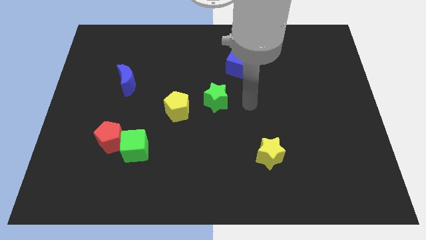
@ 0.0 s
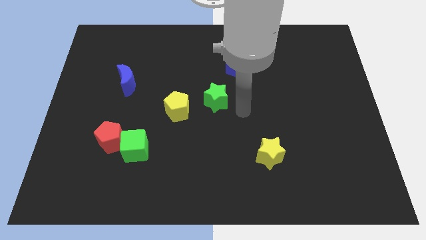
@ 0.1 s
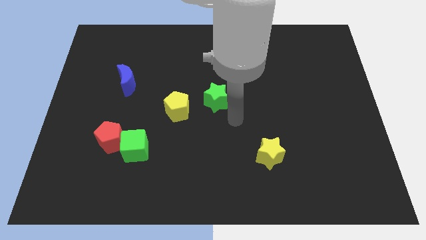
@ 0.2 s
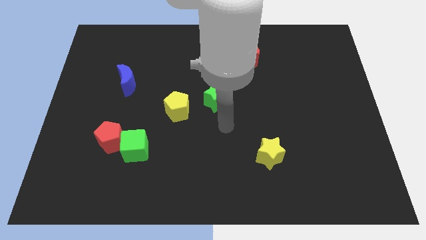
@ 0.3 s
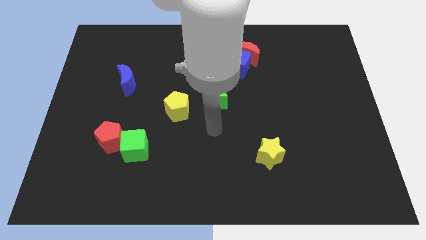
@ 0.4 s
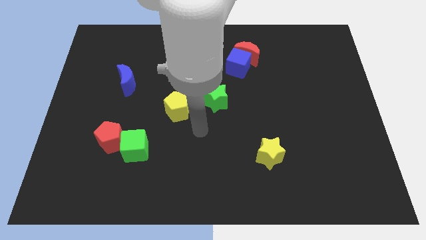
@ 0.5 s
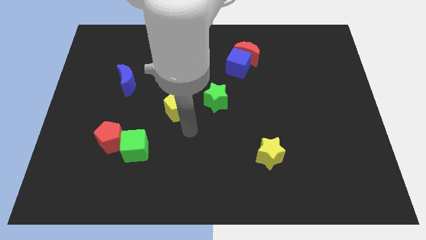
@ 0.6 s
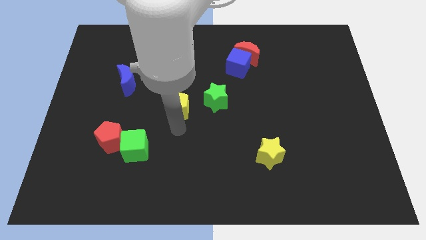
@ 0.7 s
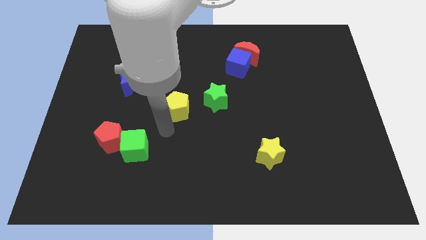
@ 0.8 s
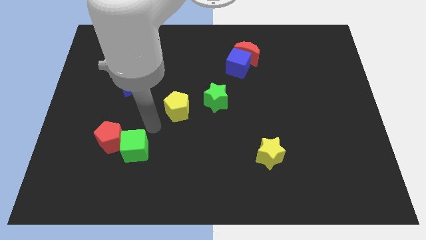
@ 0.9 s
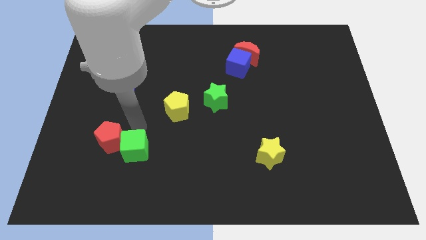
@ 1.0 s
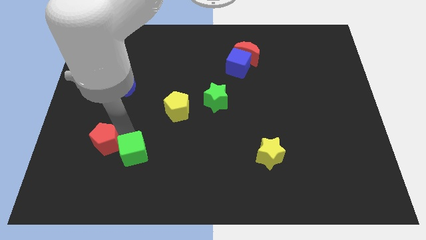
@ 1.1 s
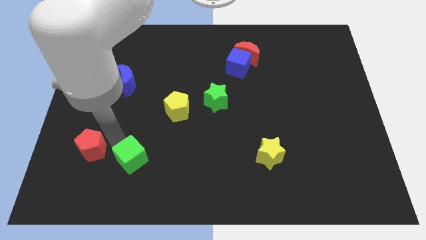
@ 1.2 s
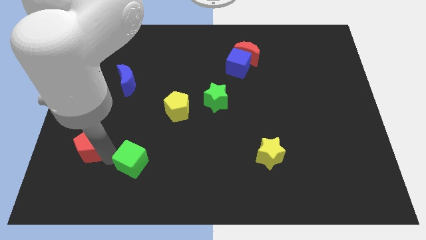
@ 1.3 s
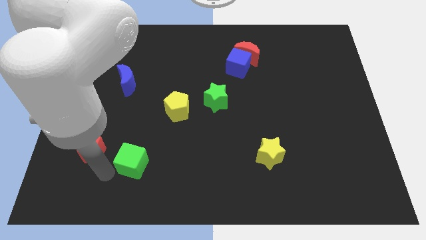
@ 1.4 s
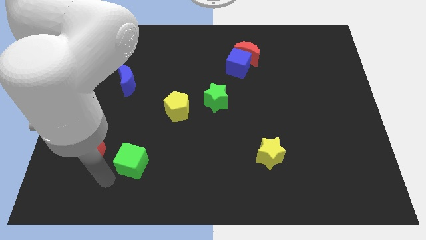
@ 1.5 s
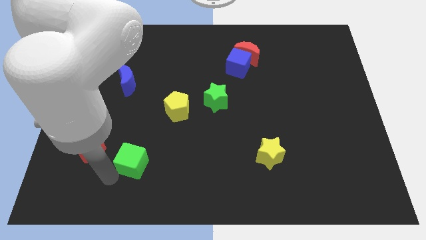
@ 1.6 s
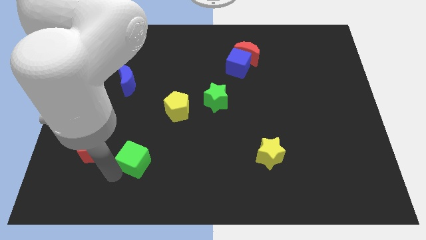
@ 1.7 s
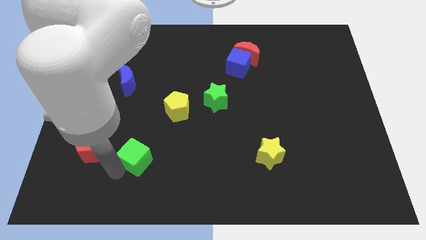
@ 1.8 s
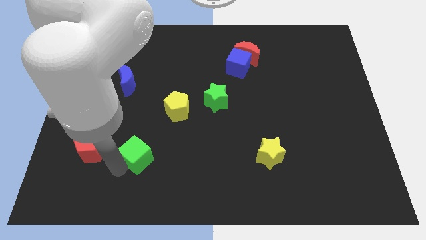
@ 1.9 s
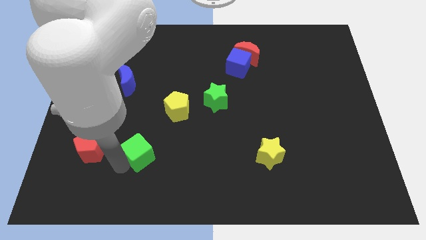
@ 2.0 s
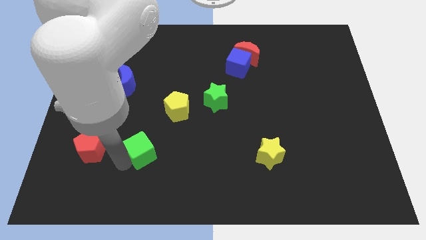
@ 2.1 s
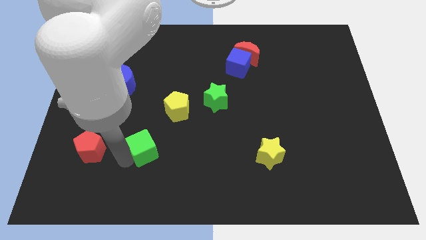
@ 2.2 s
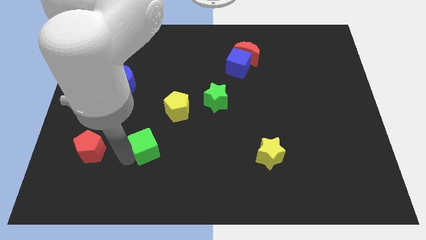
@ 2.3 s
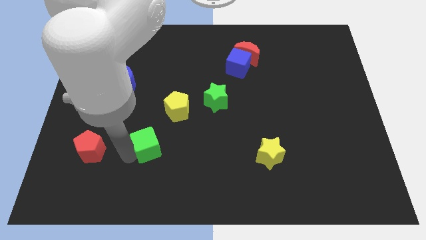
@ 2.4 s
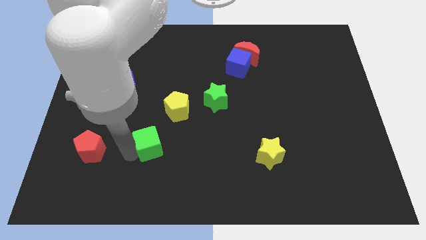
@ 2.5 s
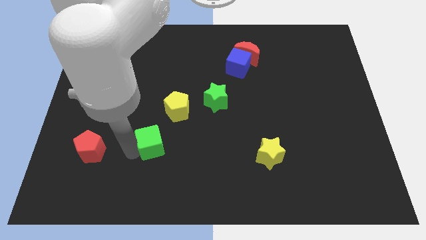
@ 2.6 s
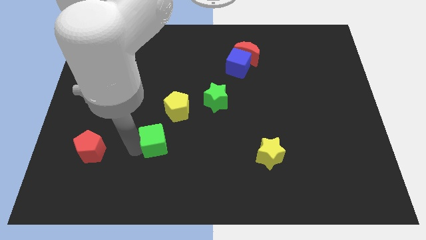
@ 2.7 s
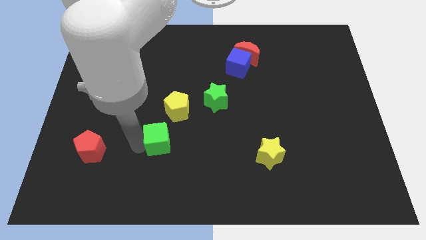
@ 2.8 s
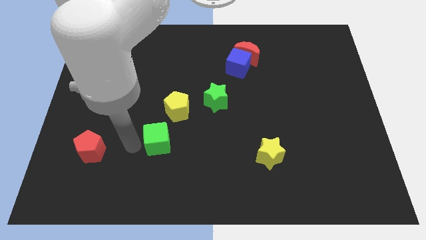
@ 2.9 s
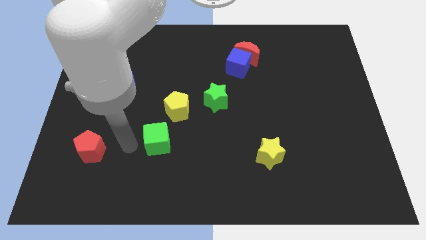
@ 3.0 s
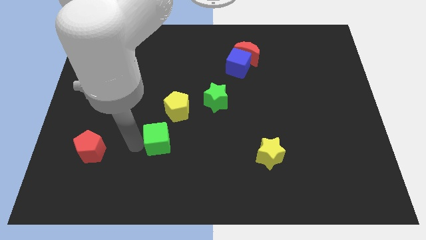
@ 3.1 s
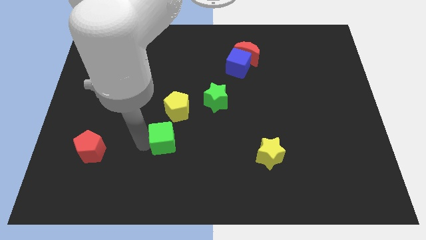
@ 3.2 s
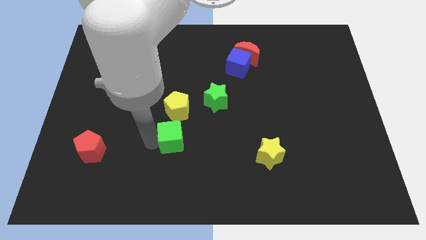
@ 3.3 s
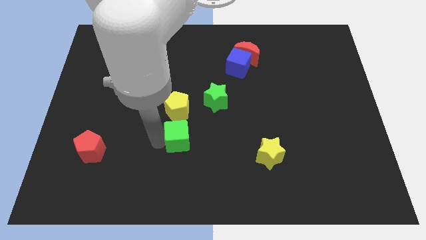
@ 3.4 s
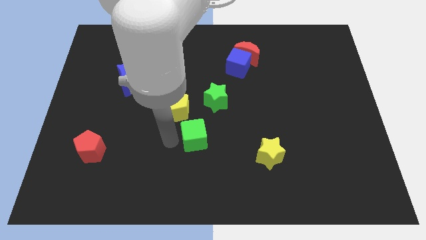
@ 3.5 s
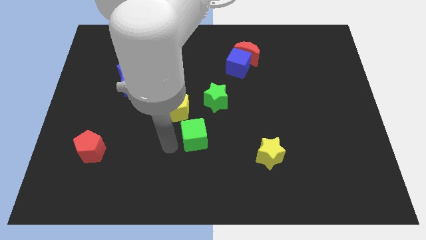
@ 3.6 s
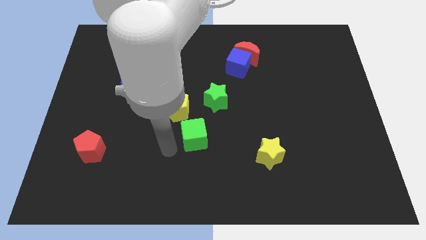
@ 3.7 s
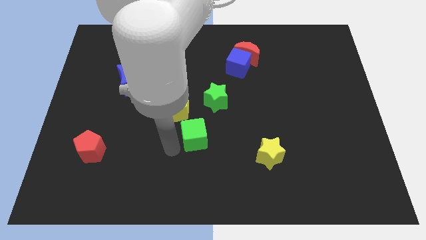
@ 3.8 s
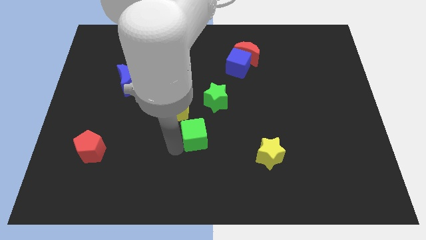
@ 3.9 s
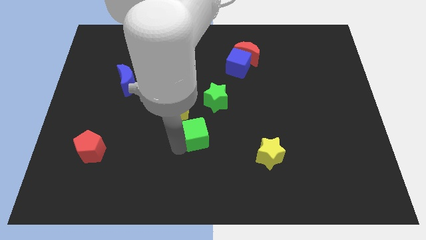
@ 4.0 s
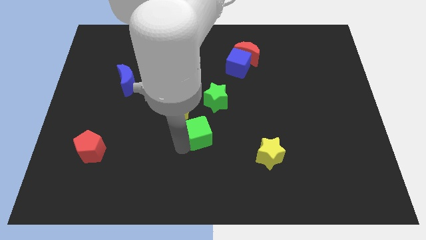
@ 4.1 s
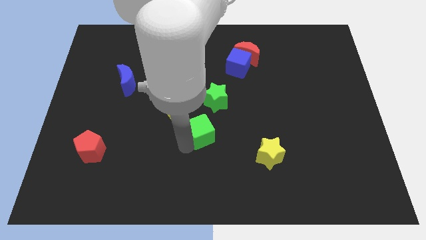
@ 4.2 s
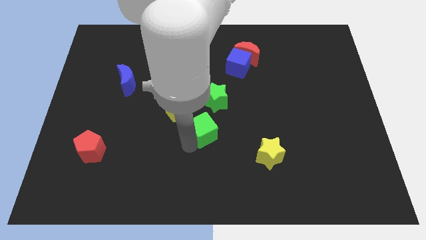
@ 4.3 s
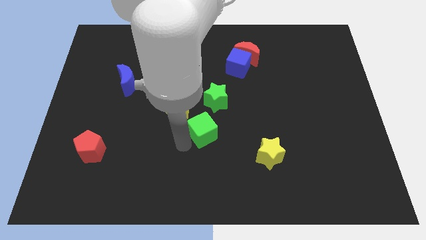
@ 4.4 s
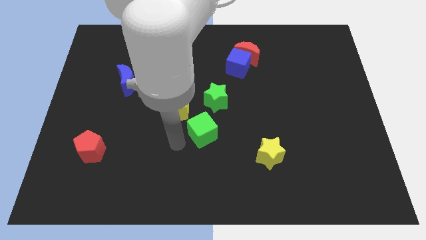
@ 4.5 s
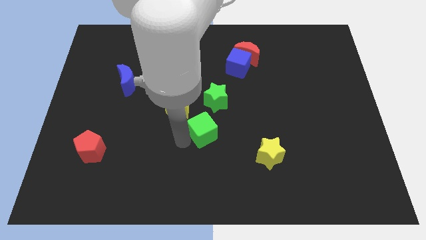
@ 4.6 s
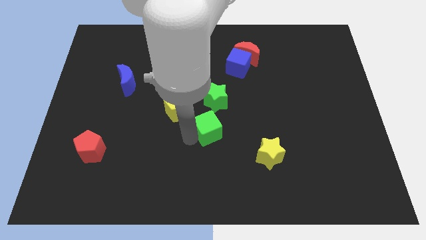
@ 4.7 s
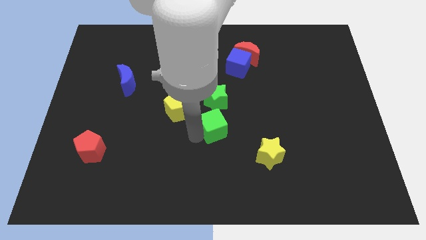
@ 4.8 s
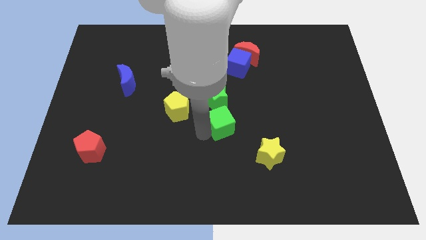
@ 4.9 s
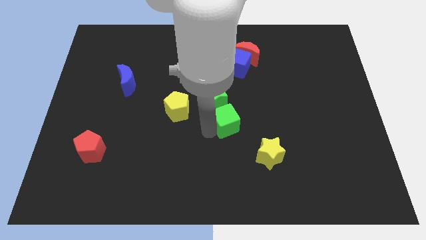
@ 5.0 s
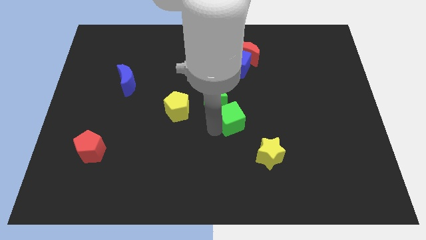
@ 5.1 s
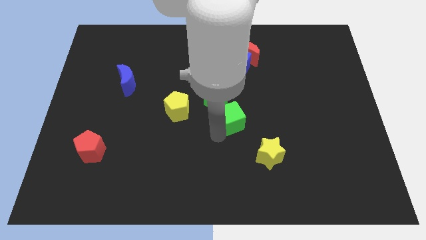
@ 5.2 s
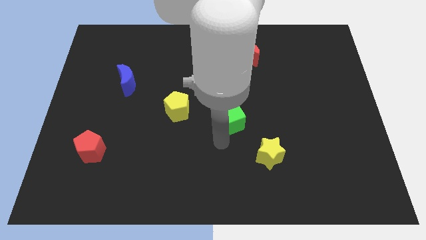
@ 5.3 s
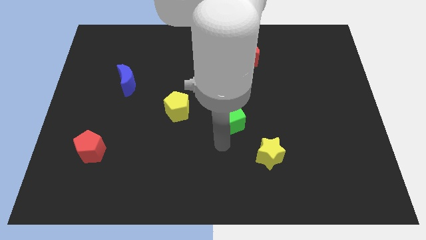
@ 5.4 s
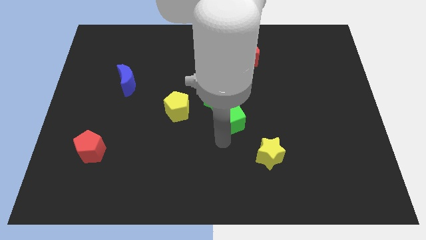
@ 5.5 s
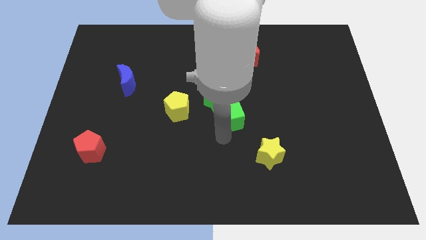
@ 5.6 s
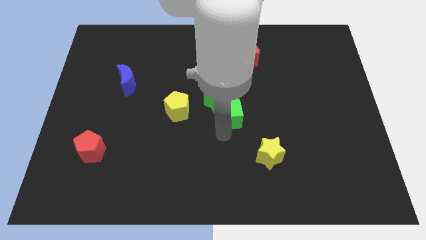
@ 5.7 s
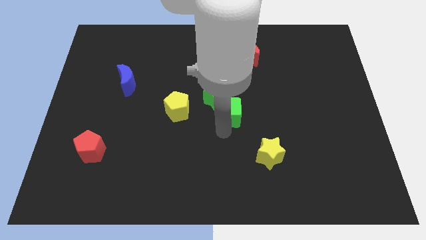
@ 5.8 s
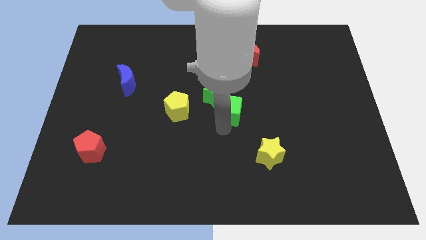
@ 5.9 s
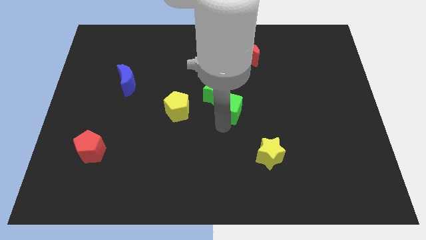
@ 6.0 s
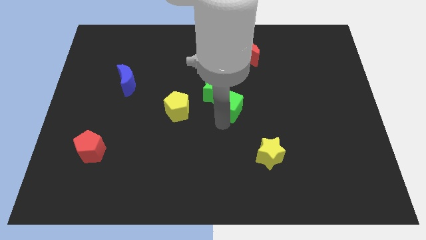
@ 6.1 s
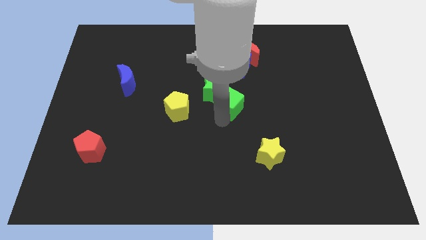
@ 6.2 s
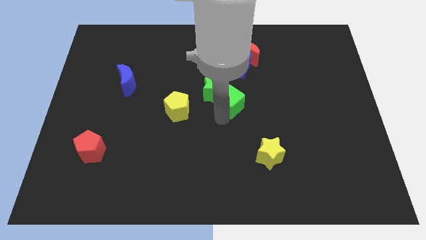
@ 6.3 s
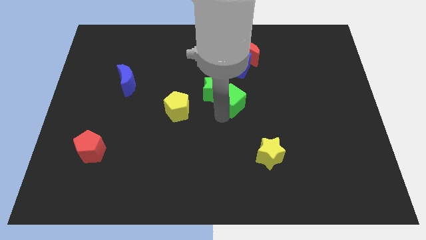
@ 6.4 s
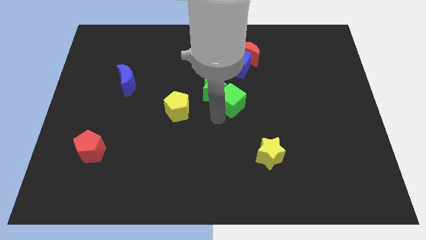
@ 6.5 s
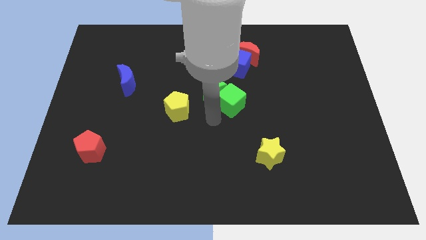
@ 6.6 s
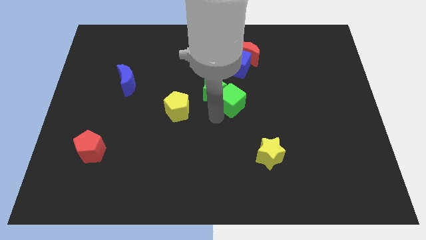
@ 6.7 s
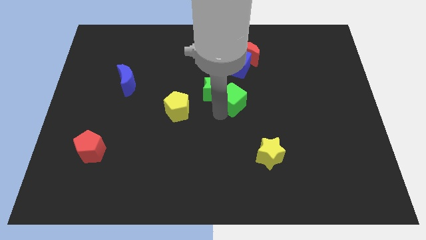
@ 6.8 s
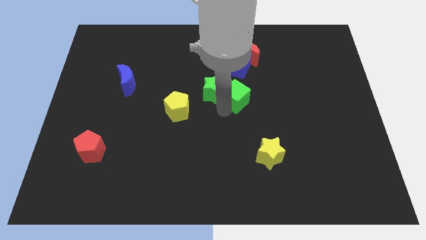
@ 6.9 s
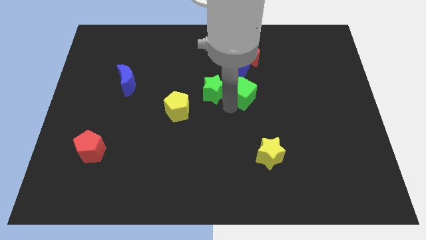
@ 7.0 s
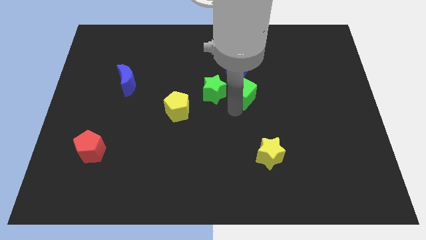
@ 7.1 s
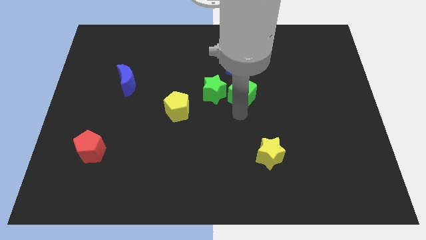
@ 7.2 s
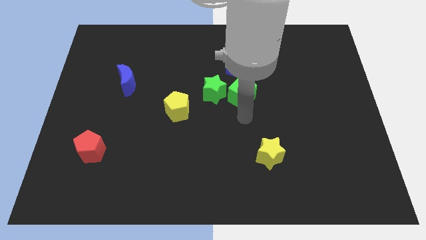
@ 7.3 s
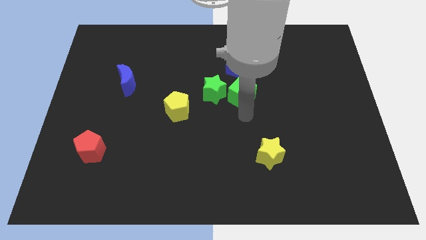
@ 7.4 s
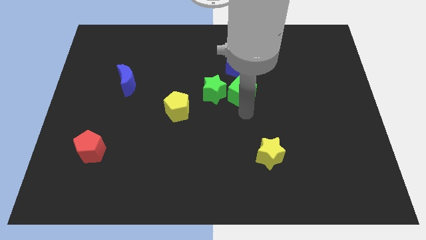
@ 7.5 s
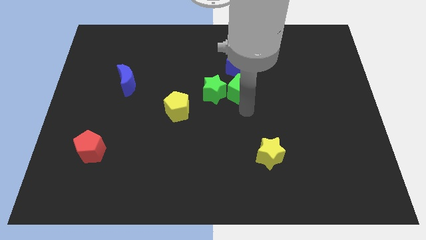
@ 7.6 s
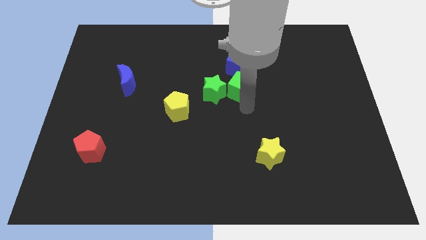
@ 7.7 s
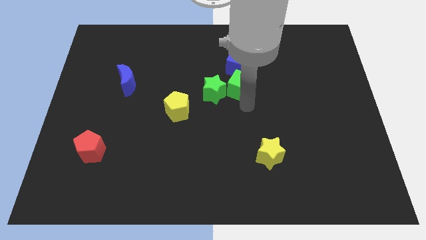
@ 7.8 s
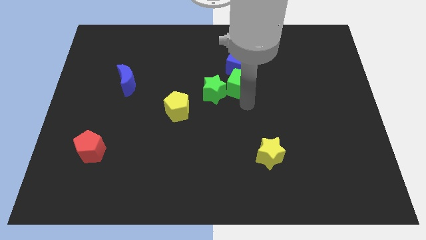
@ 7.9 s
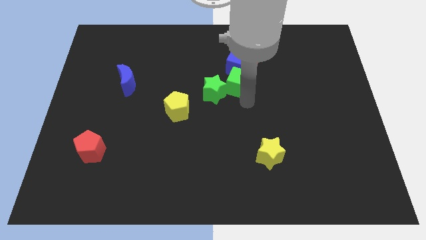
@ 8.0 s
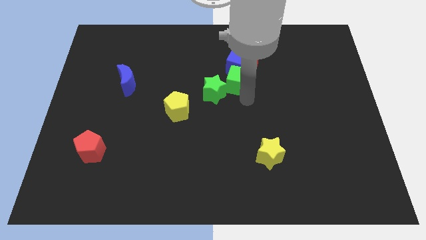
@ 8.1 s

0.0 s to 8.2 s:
push the green cube next to the blue cube
